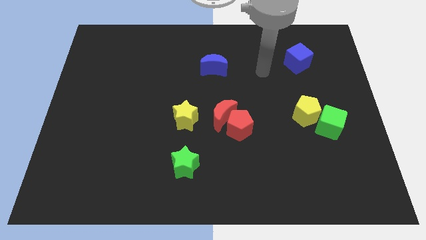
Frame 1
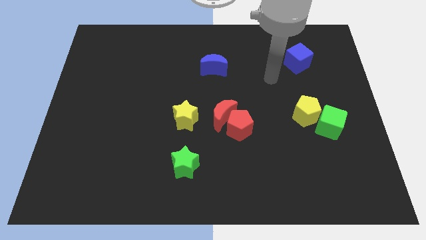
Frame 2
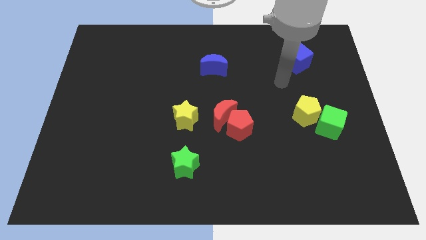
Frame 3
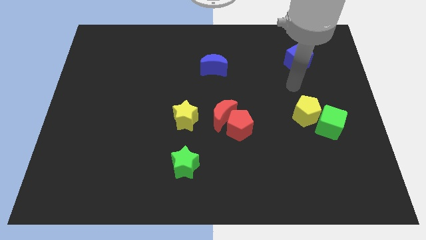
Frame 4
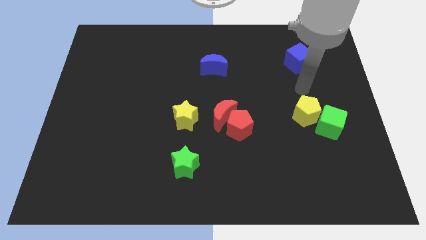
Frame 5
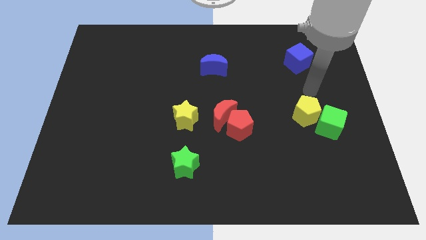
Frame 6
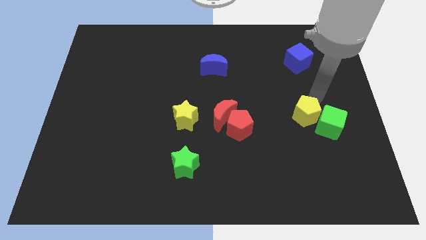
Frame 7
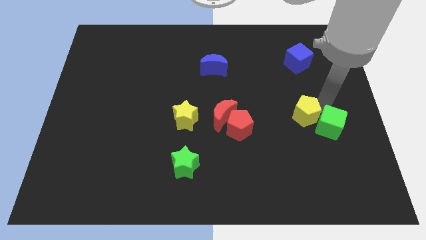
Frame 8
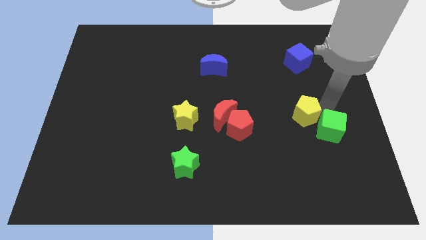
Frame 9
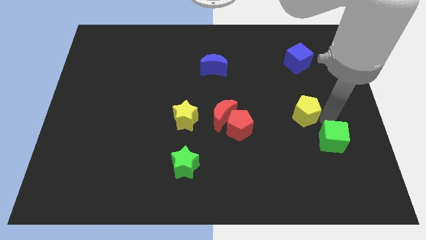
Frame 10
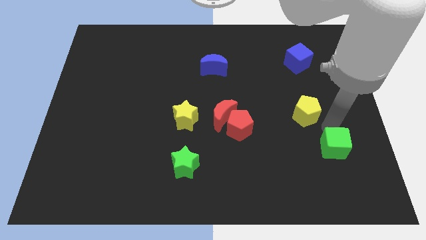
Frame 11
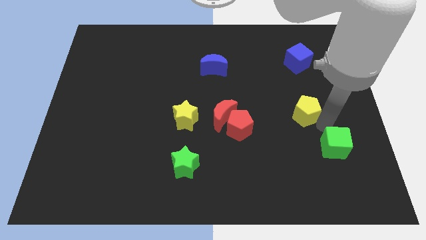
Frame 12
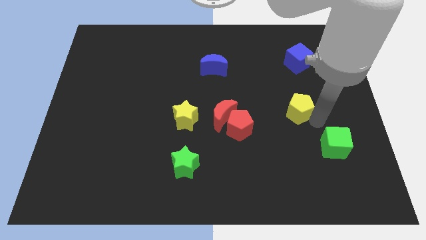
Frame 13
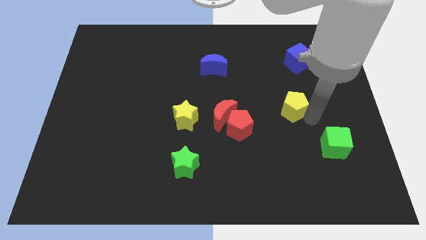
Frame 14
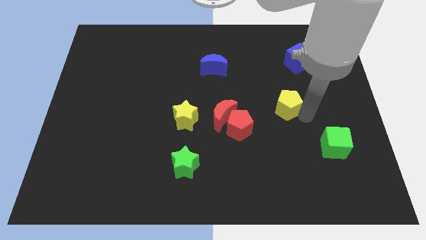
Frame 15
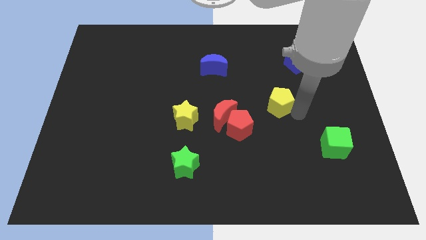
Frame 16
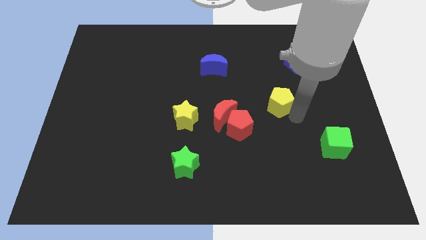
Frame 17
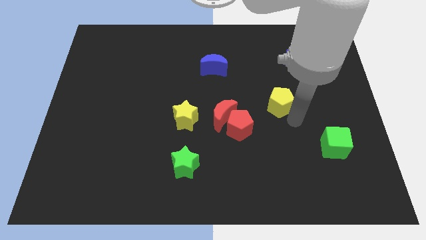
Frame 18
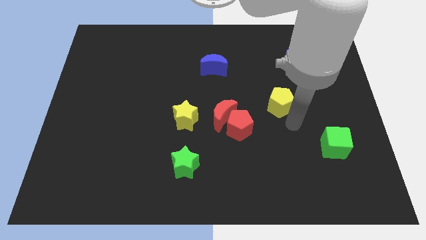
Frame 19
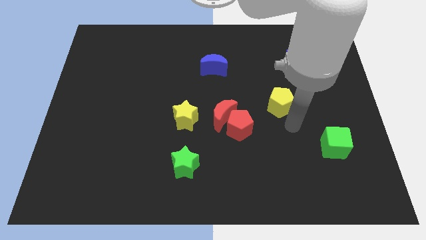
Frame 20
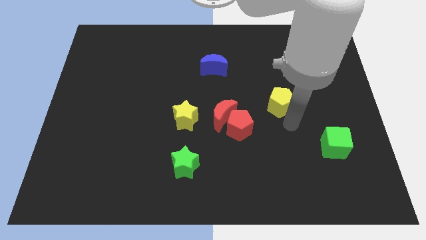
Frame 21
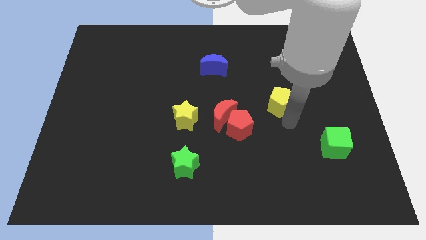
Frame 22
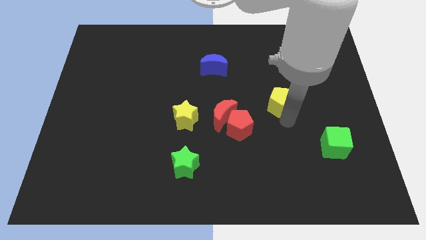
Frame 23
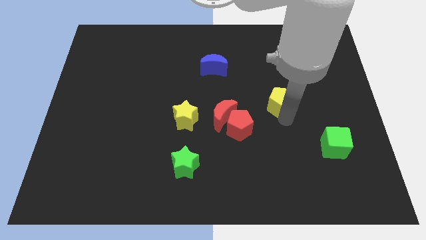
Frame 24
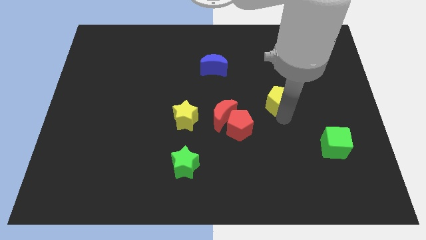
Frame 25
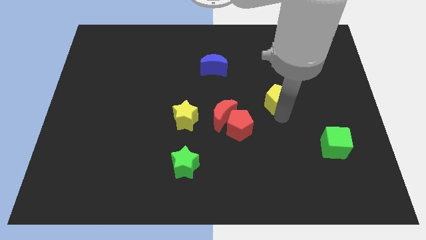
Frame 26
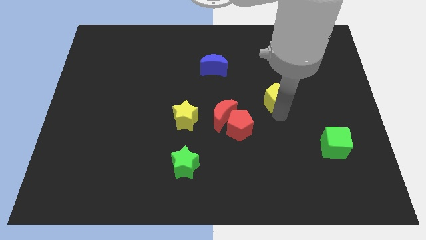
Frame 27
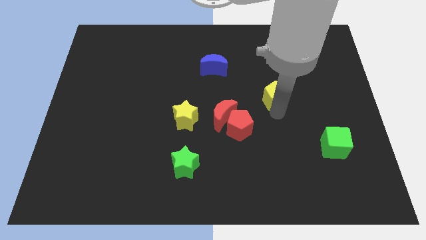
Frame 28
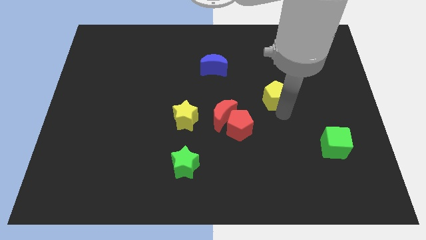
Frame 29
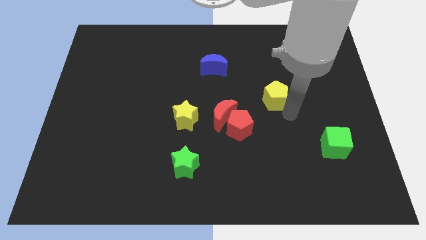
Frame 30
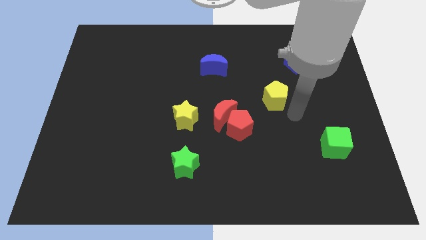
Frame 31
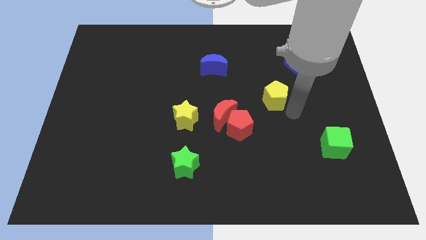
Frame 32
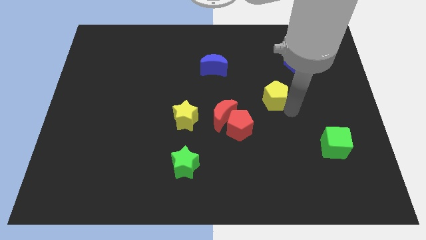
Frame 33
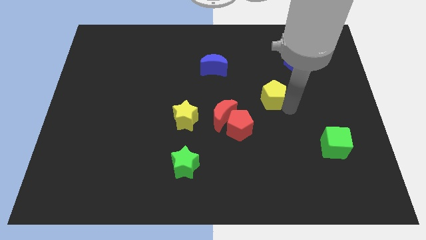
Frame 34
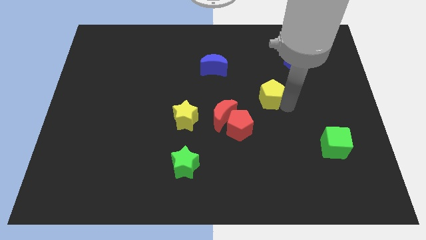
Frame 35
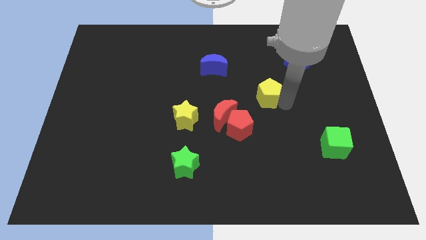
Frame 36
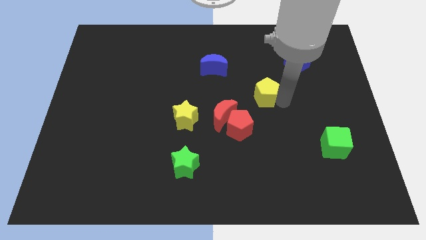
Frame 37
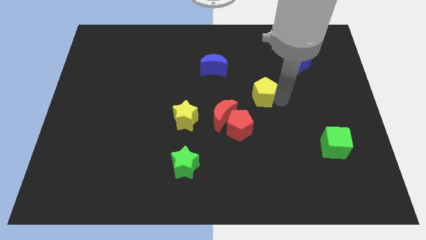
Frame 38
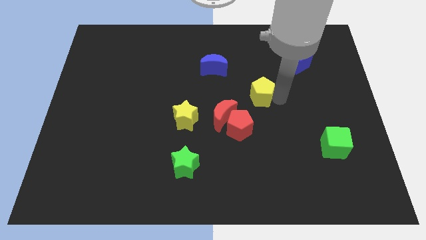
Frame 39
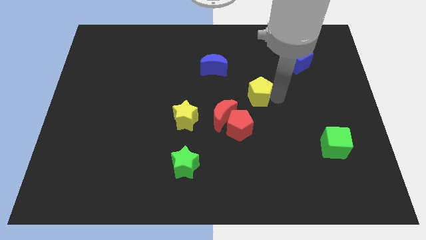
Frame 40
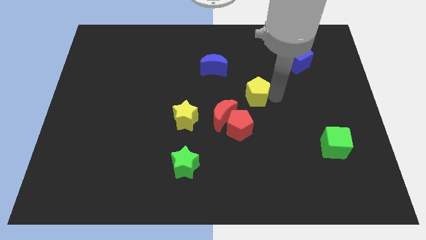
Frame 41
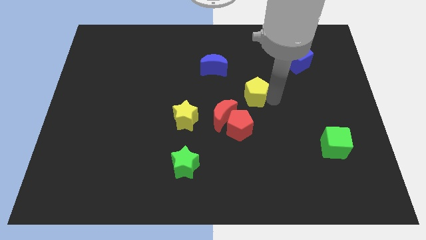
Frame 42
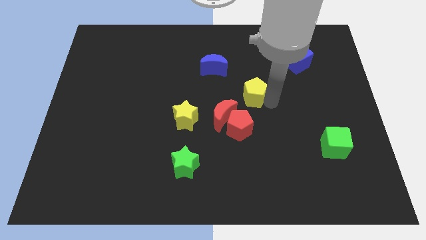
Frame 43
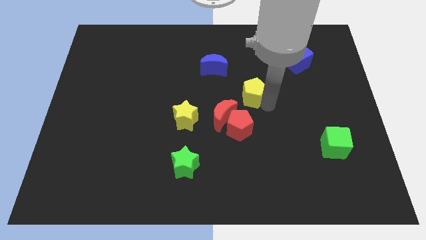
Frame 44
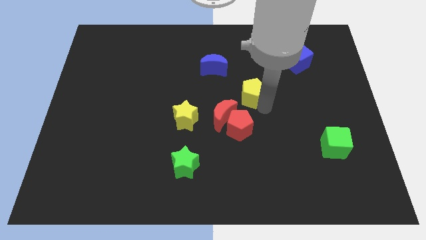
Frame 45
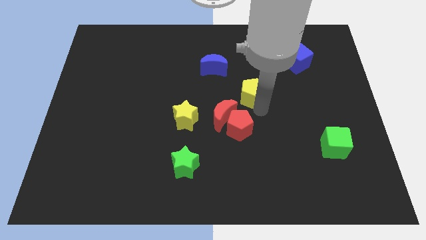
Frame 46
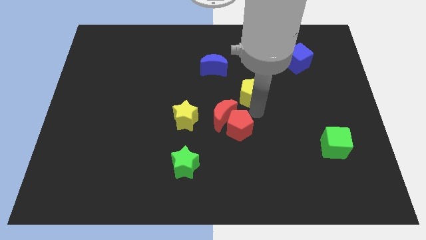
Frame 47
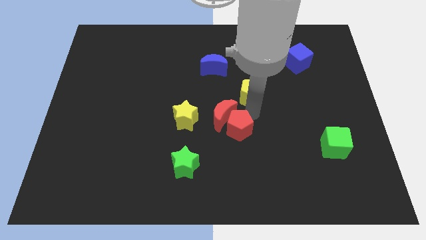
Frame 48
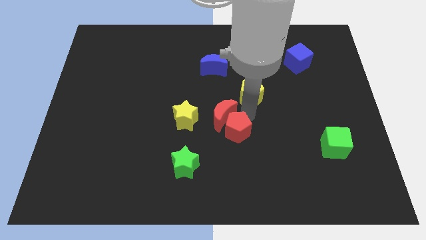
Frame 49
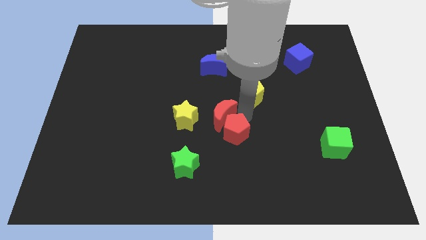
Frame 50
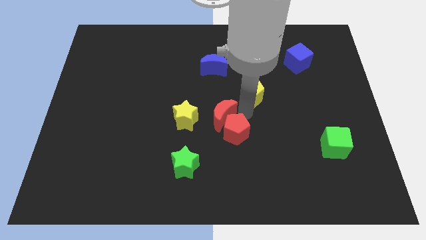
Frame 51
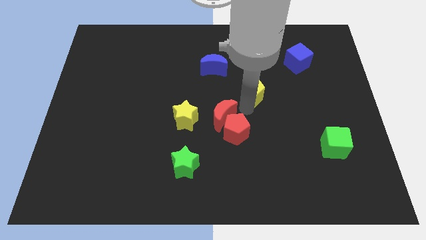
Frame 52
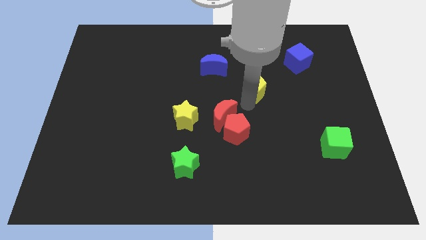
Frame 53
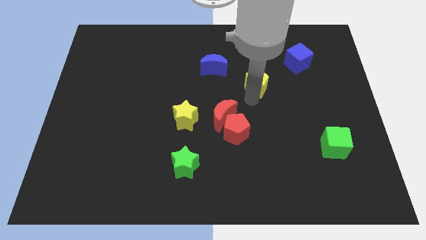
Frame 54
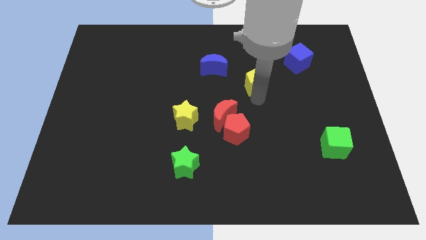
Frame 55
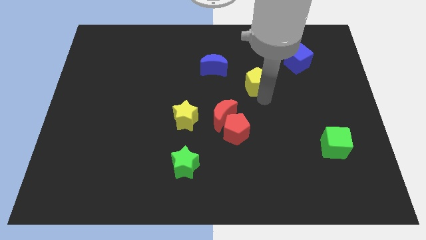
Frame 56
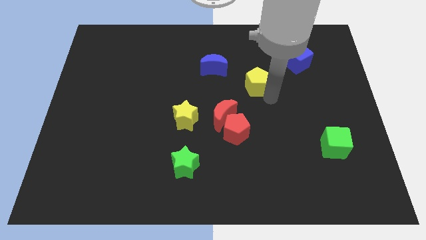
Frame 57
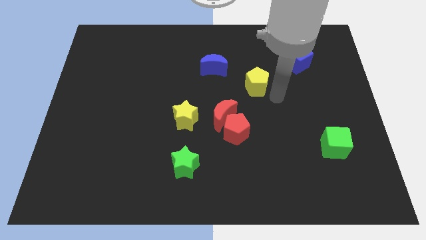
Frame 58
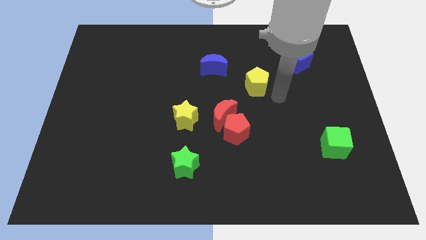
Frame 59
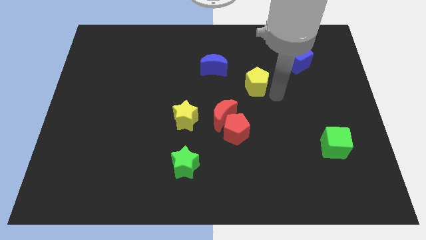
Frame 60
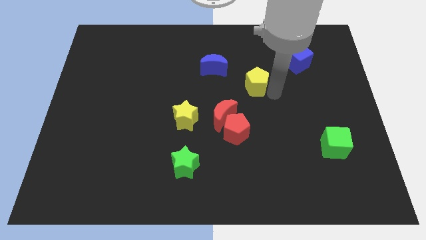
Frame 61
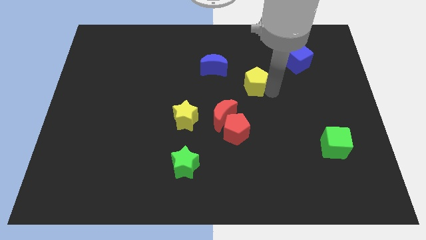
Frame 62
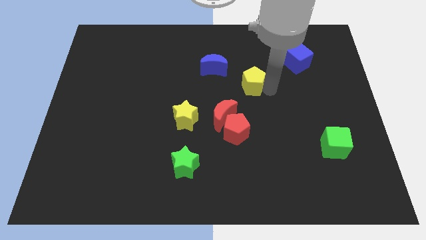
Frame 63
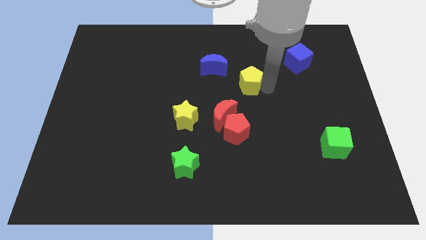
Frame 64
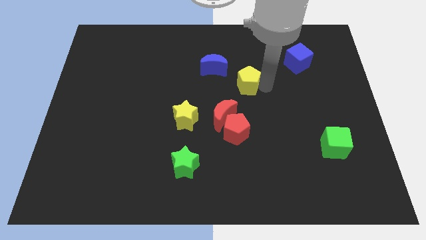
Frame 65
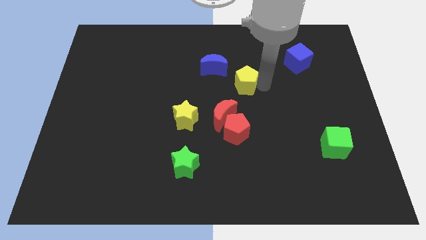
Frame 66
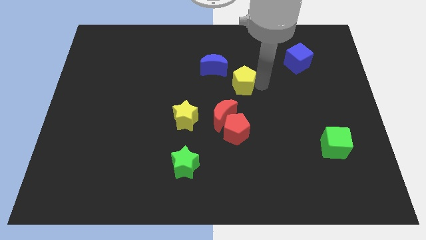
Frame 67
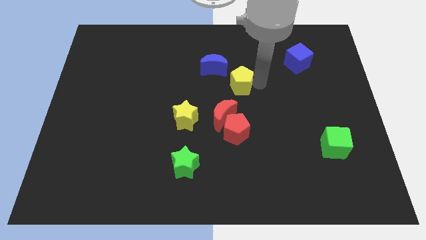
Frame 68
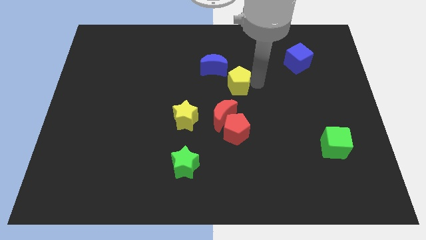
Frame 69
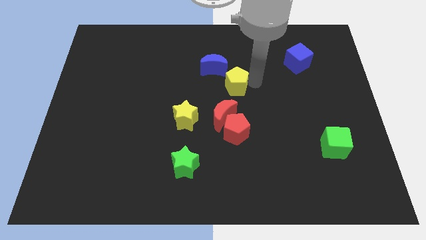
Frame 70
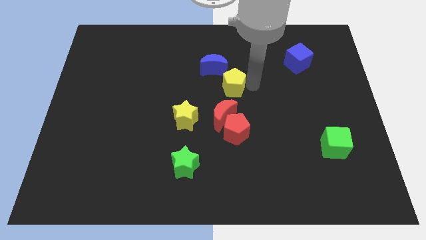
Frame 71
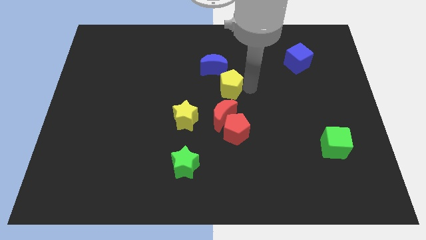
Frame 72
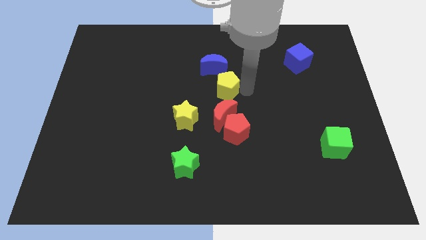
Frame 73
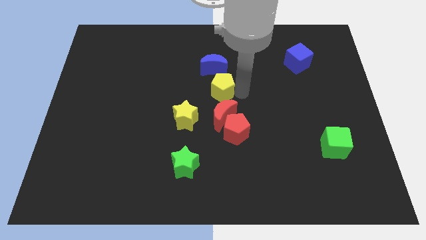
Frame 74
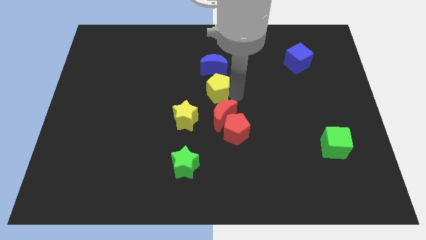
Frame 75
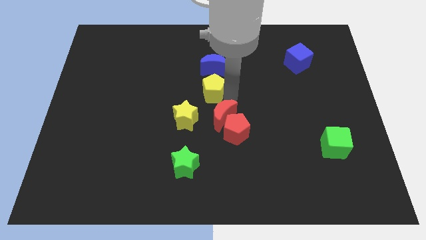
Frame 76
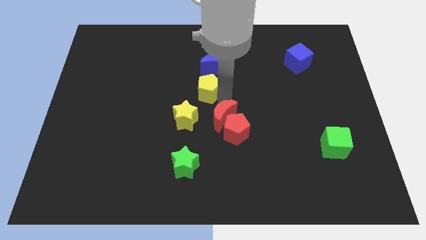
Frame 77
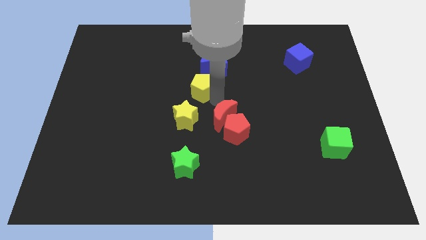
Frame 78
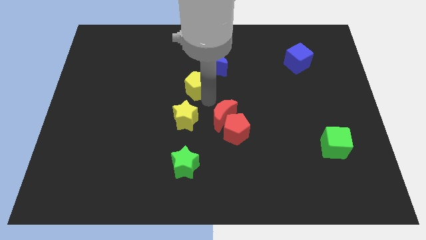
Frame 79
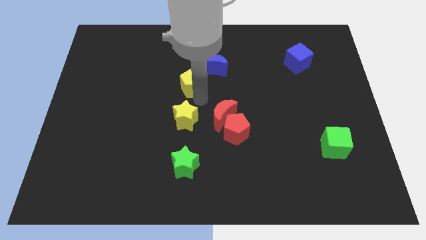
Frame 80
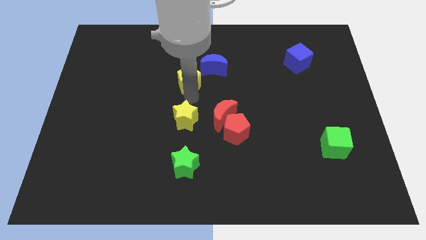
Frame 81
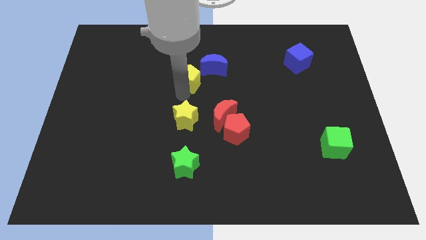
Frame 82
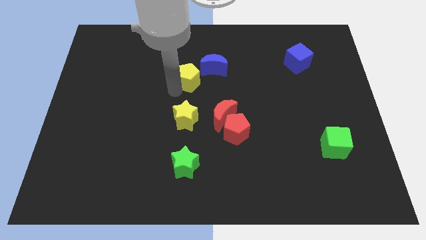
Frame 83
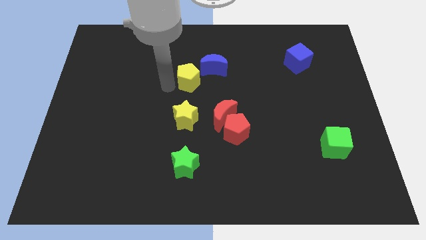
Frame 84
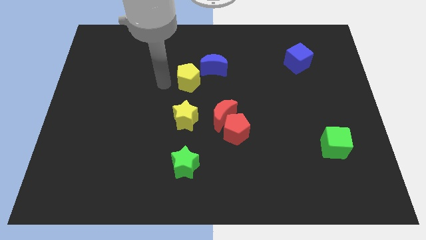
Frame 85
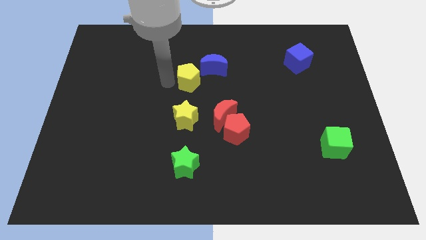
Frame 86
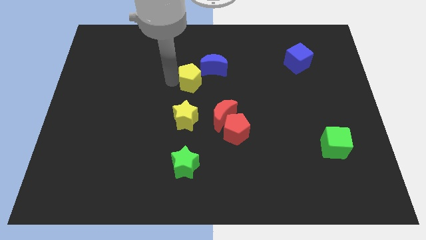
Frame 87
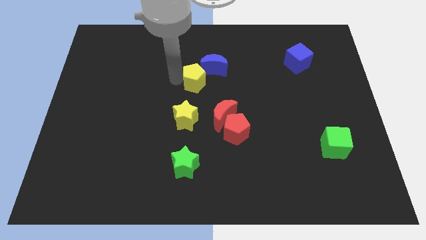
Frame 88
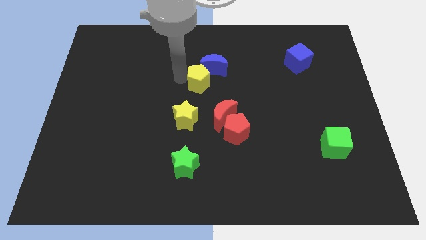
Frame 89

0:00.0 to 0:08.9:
push the yellow pentagon close to the blue moon
